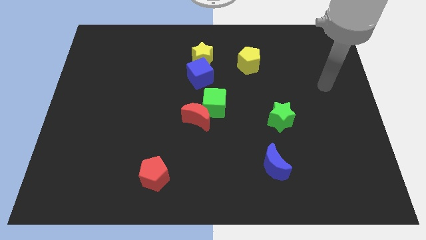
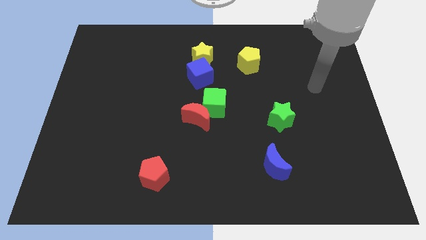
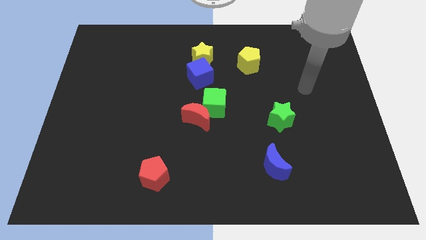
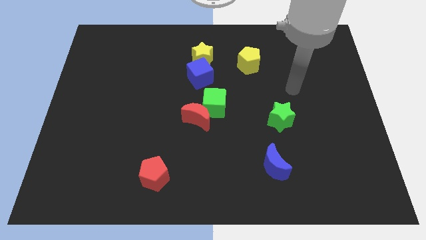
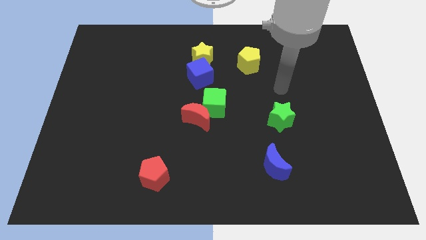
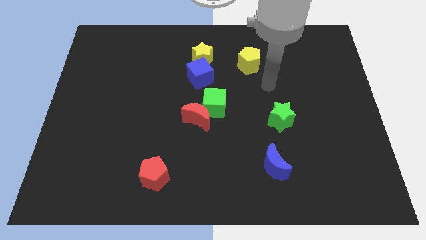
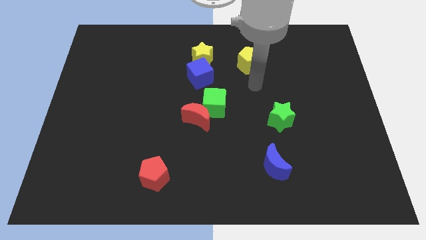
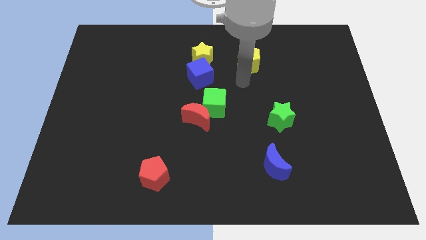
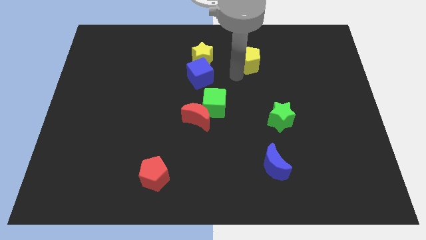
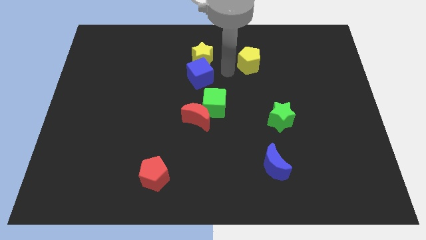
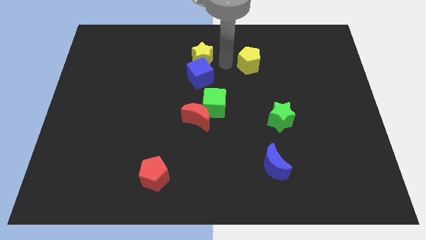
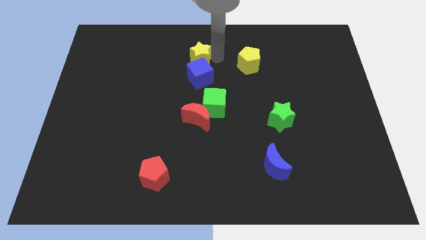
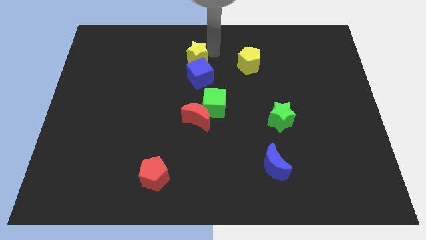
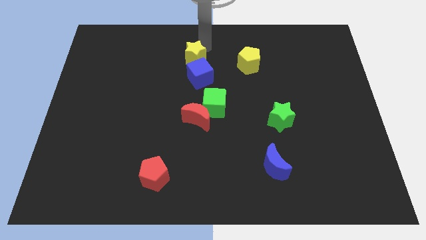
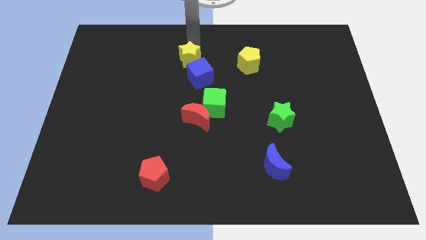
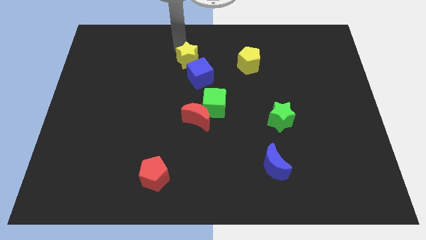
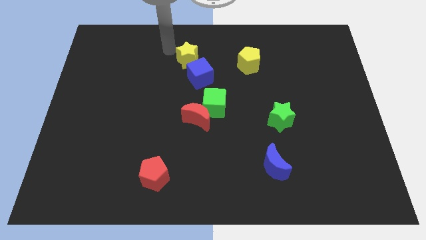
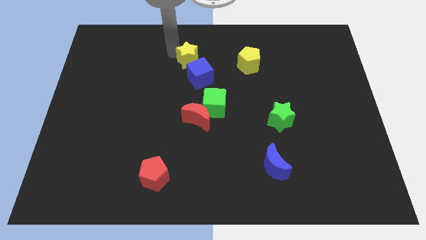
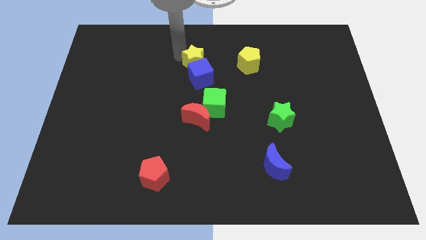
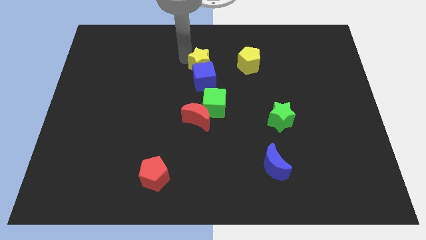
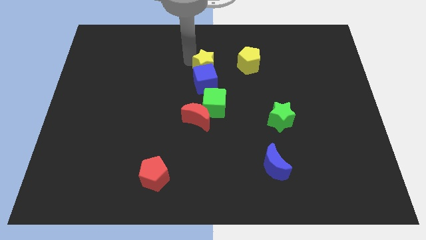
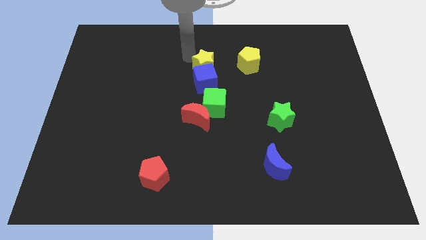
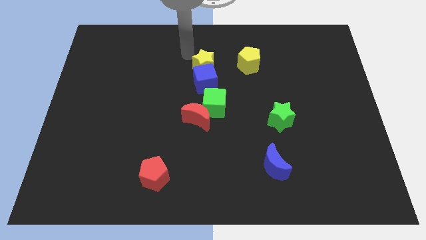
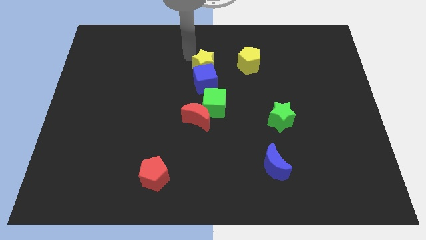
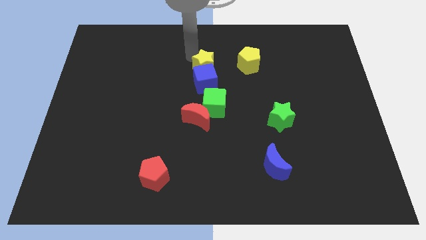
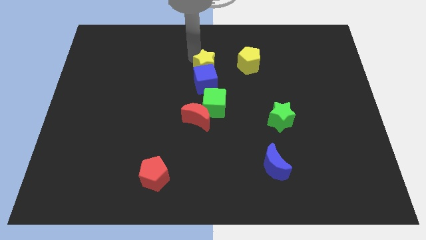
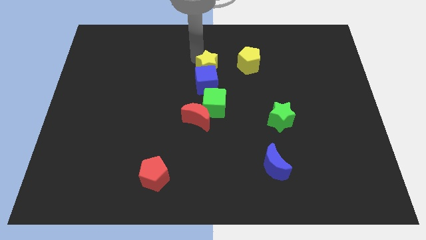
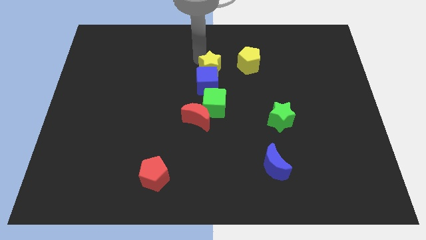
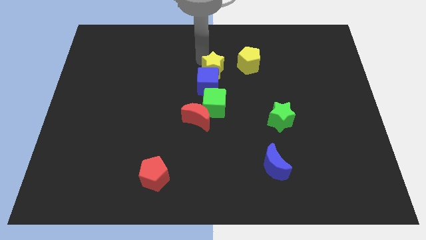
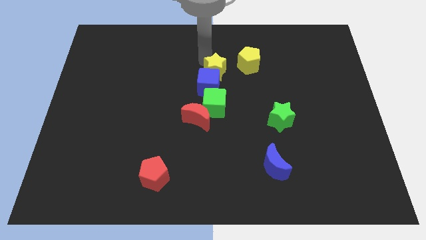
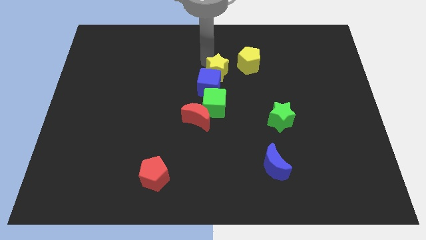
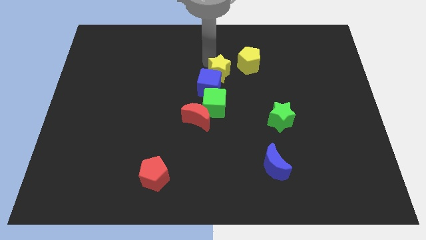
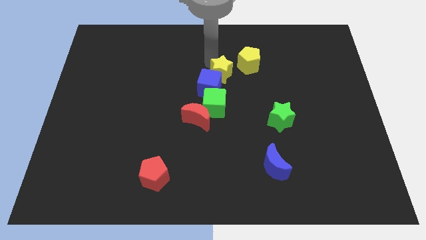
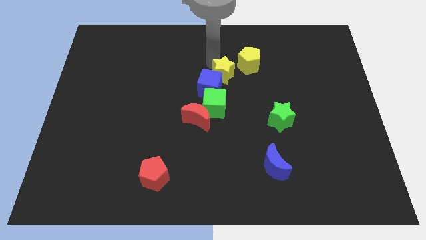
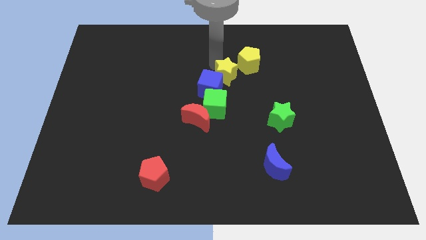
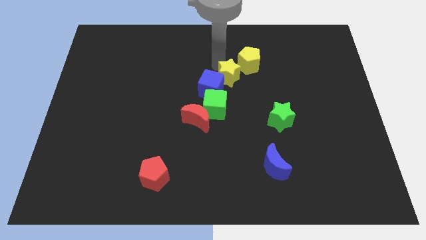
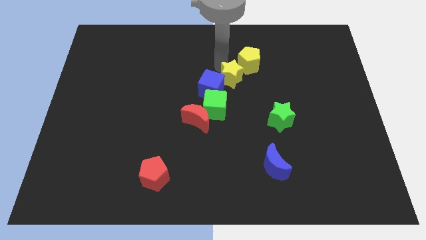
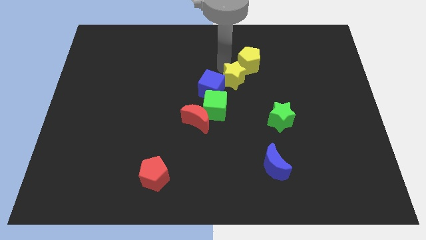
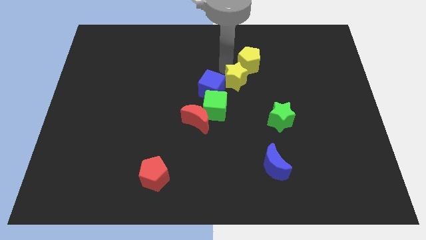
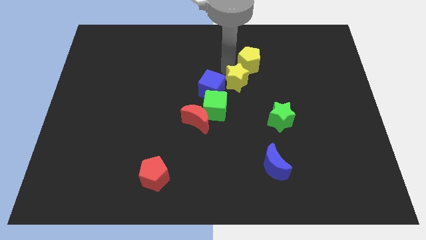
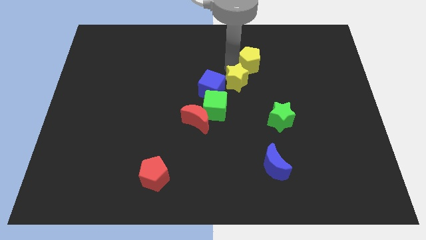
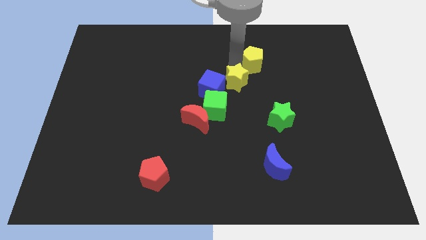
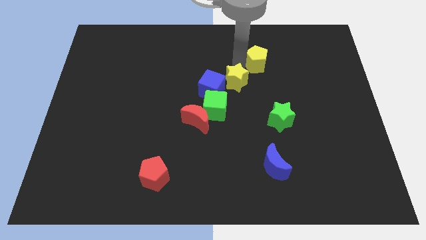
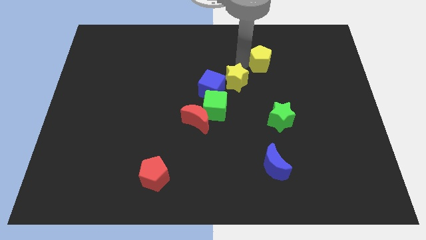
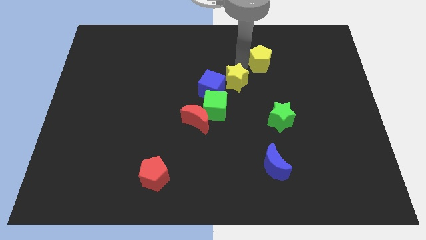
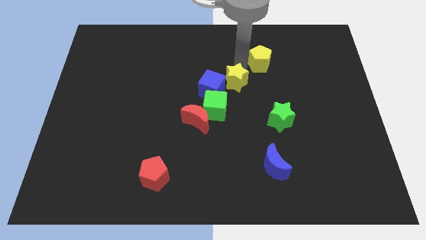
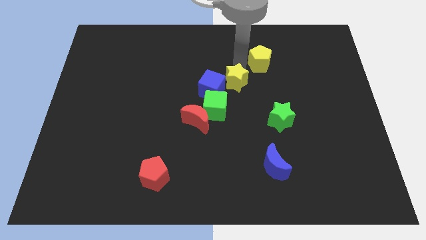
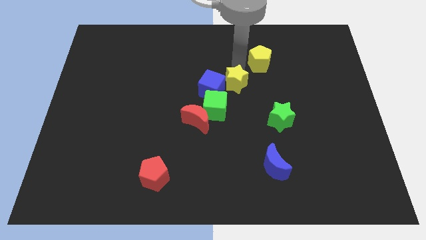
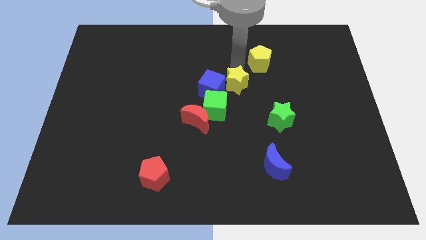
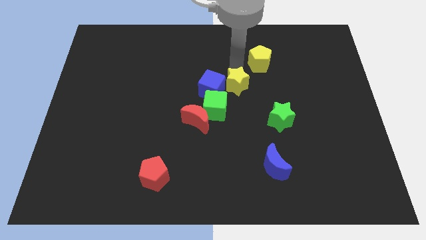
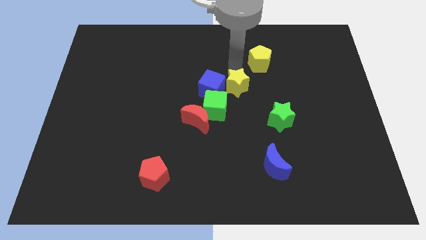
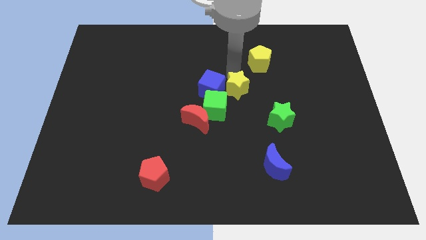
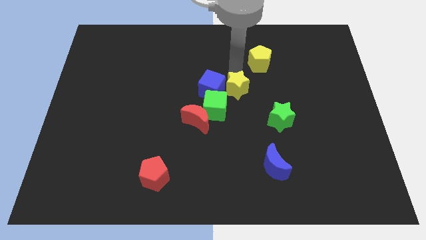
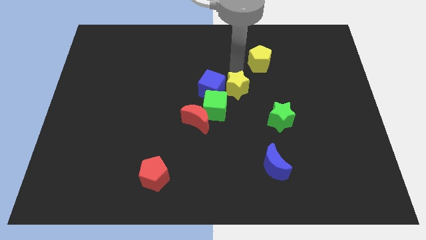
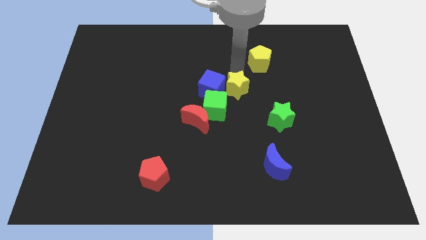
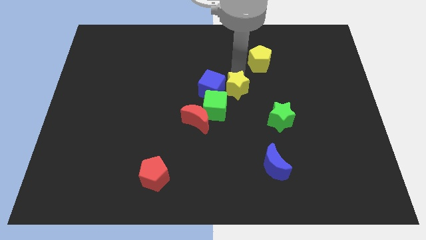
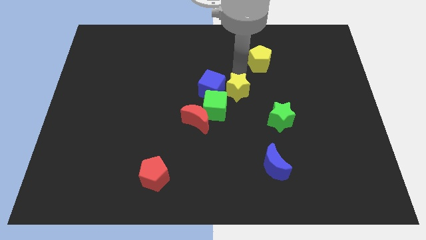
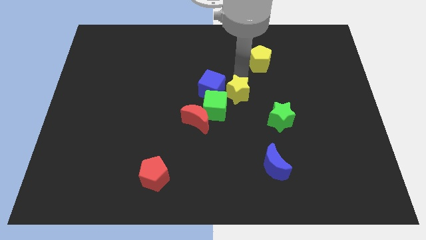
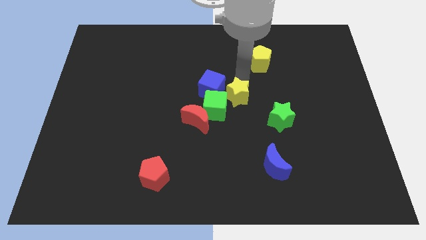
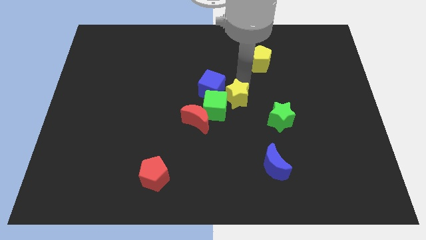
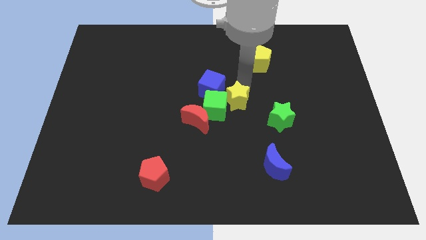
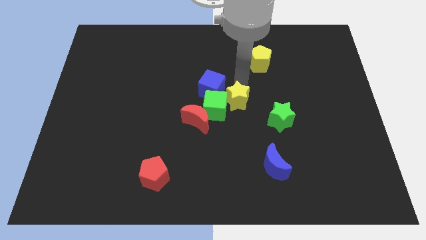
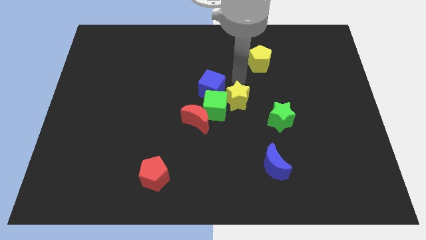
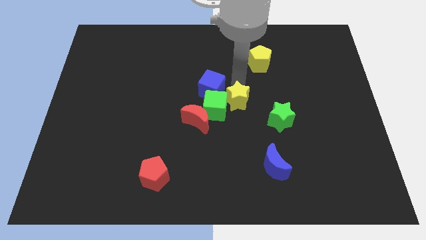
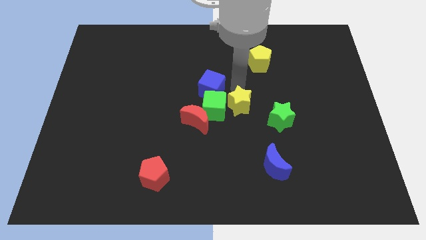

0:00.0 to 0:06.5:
put the yellow star left of the green star
